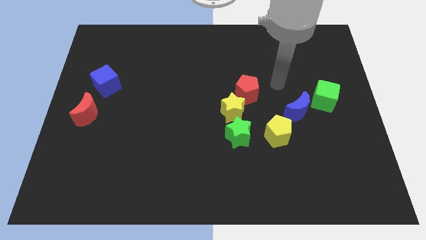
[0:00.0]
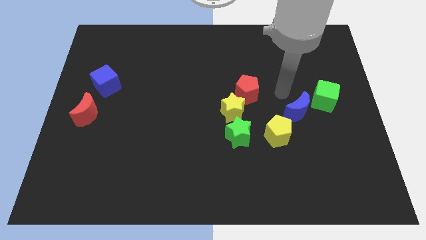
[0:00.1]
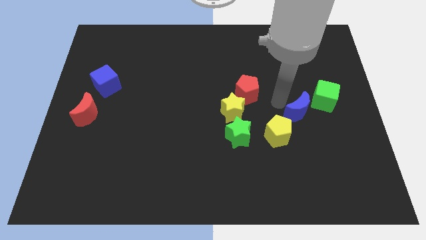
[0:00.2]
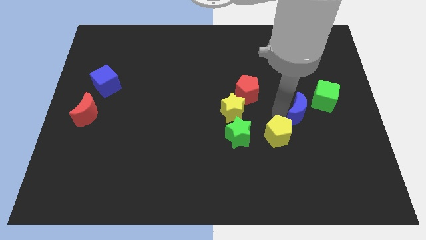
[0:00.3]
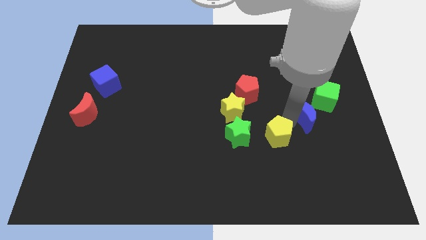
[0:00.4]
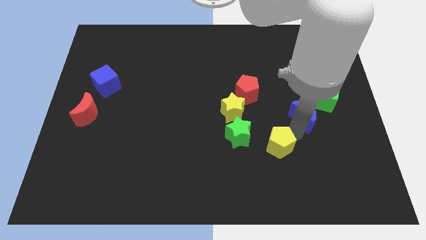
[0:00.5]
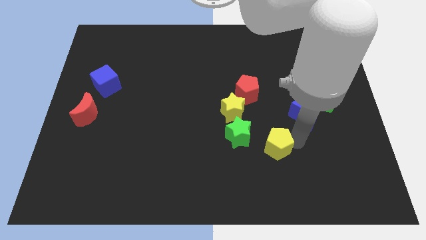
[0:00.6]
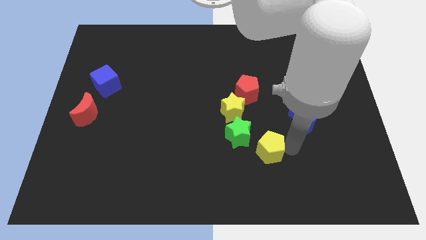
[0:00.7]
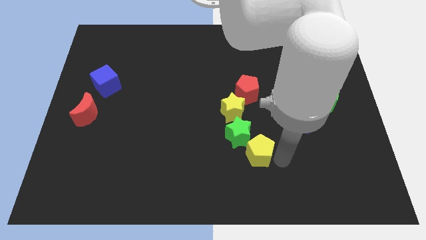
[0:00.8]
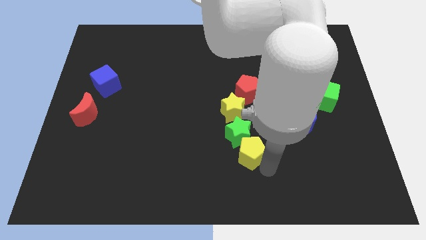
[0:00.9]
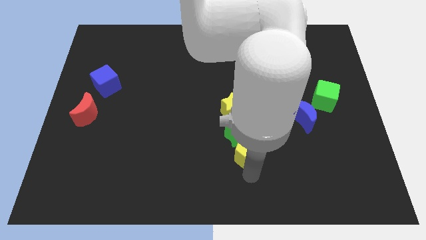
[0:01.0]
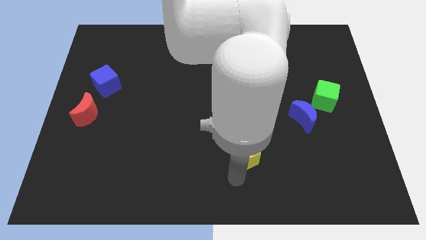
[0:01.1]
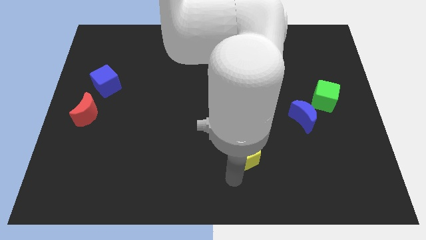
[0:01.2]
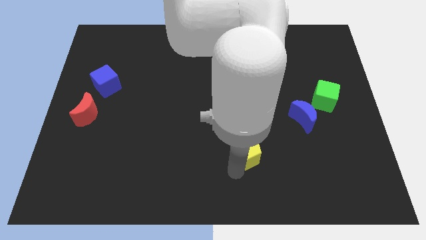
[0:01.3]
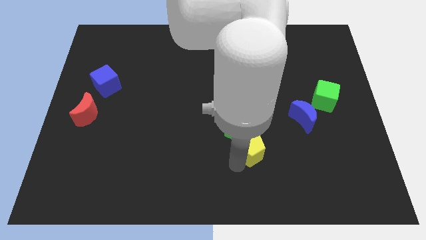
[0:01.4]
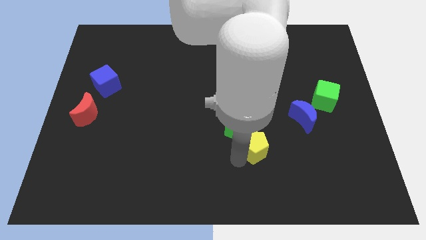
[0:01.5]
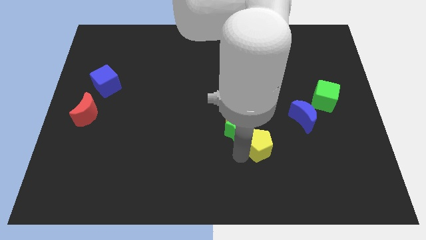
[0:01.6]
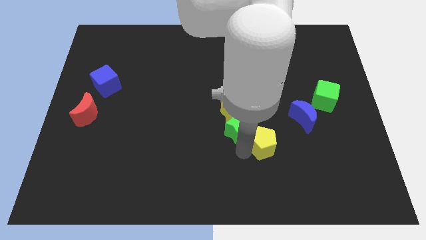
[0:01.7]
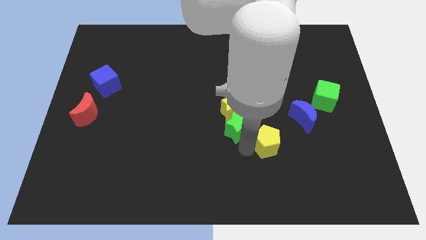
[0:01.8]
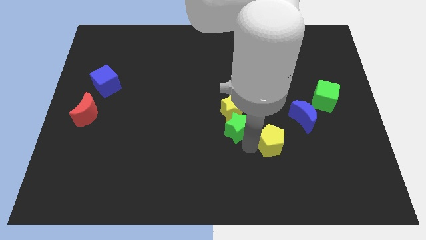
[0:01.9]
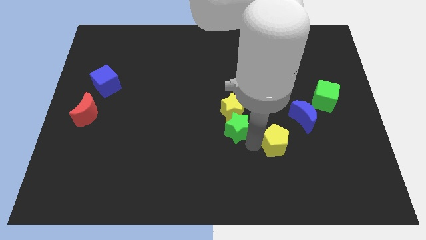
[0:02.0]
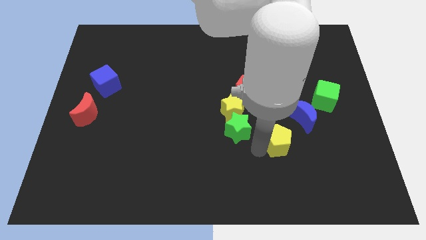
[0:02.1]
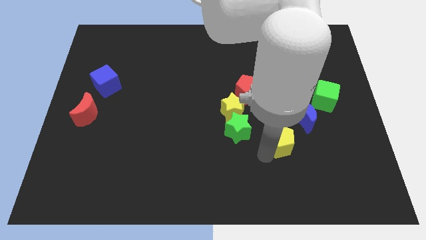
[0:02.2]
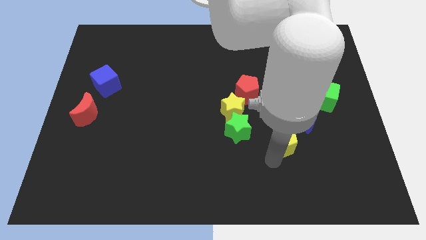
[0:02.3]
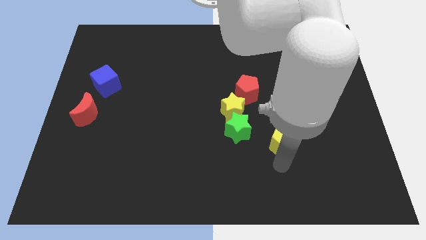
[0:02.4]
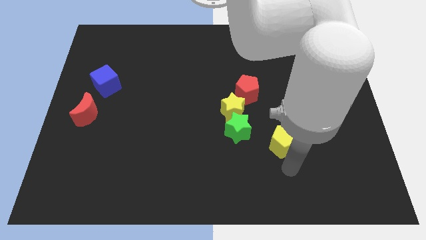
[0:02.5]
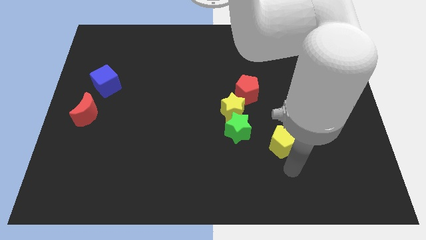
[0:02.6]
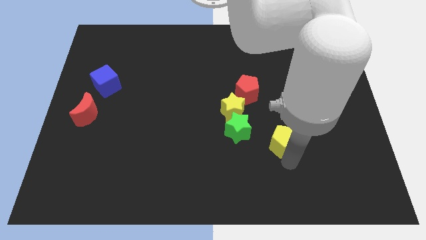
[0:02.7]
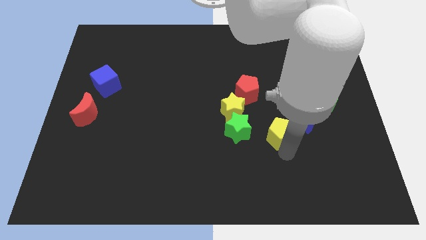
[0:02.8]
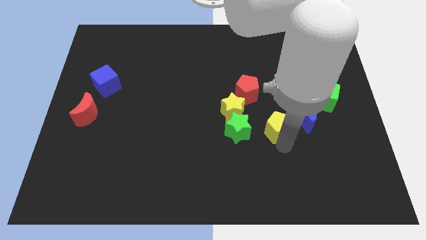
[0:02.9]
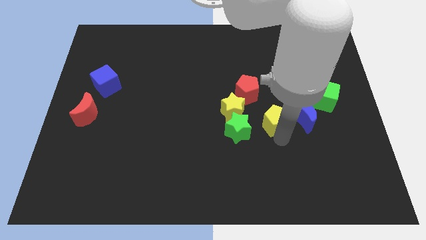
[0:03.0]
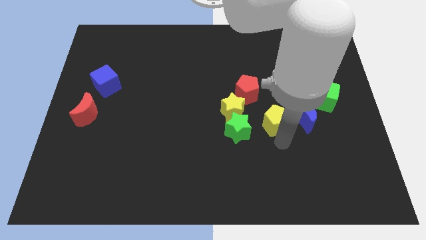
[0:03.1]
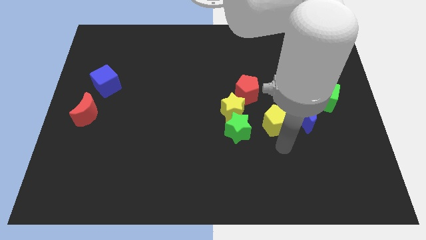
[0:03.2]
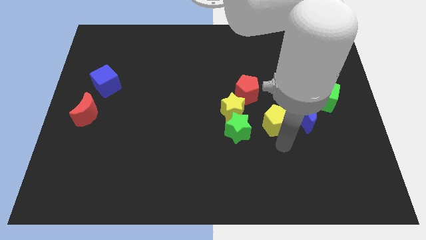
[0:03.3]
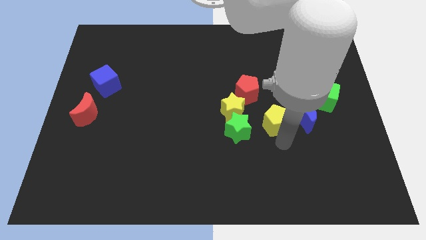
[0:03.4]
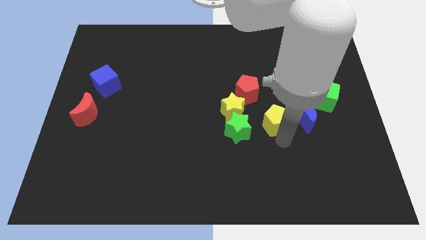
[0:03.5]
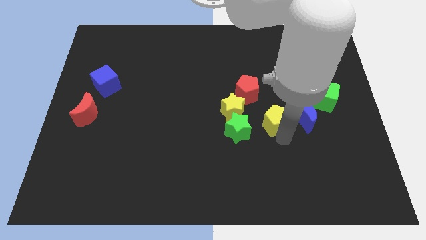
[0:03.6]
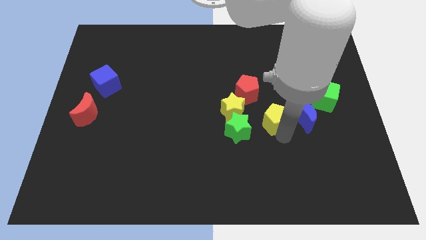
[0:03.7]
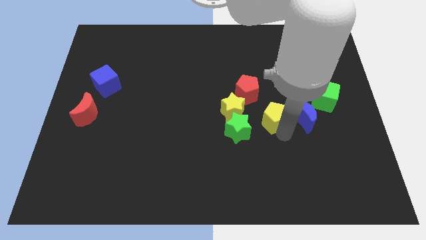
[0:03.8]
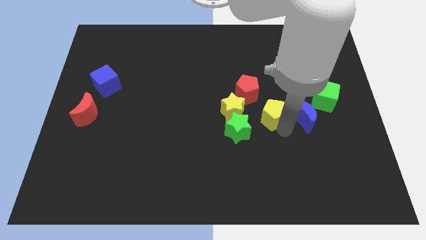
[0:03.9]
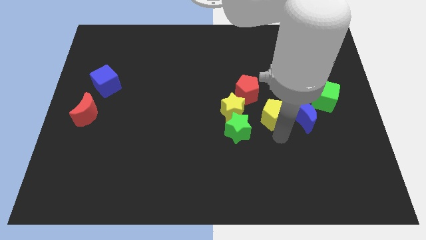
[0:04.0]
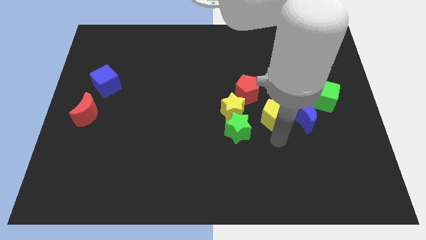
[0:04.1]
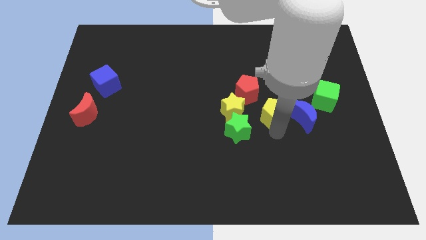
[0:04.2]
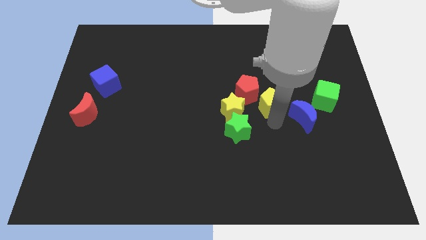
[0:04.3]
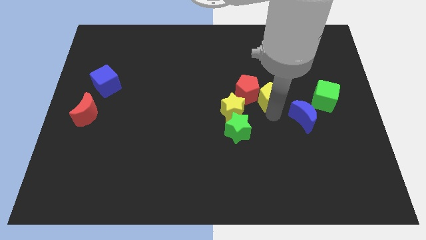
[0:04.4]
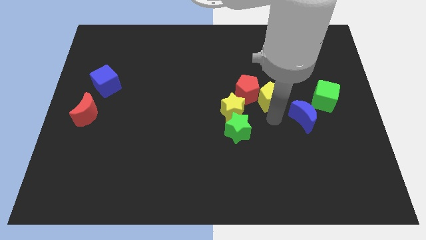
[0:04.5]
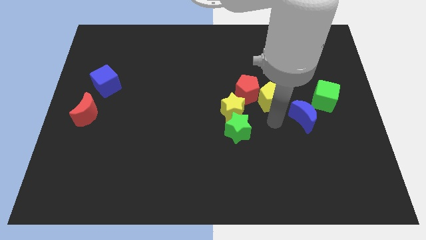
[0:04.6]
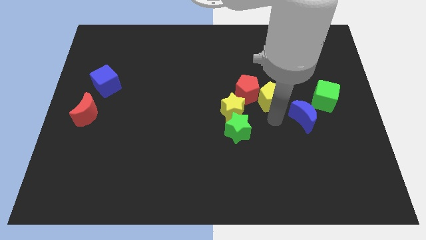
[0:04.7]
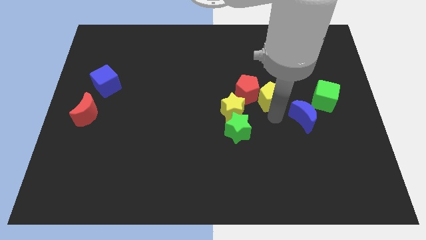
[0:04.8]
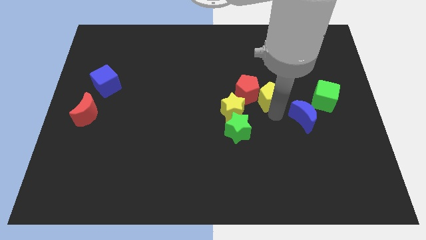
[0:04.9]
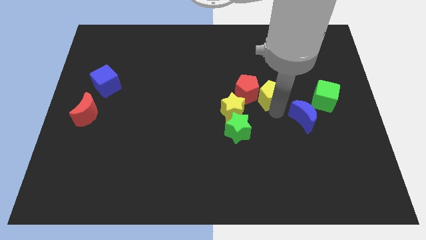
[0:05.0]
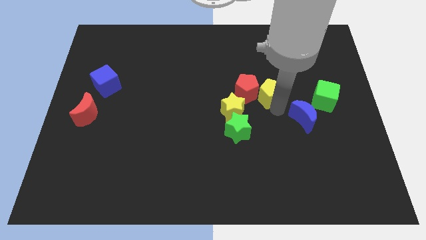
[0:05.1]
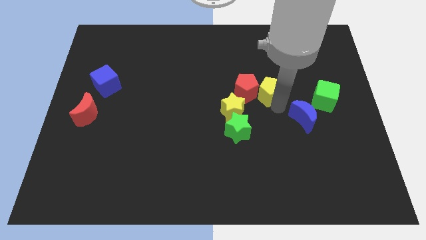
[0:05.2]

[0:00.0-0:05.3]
move the yellow pentagon to the top right side of the red pentagon

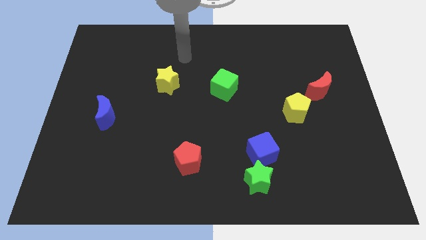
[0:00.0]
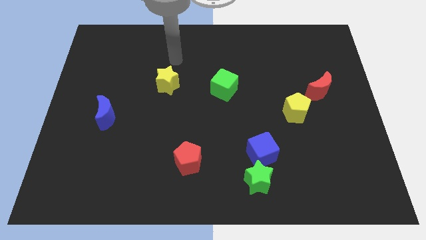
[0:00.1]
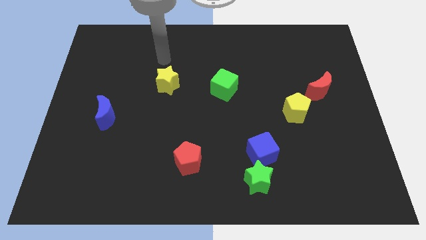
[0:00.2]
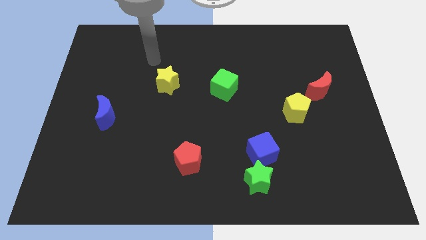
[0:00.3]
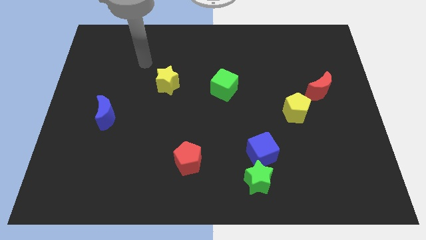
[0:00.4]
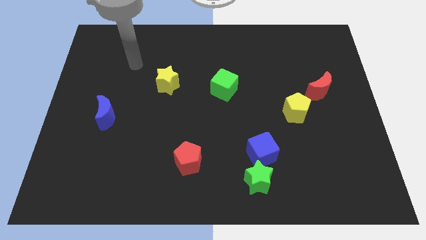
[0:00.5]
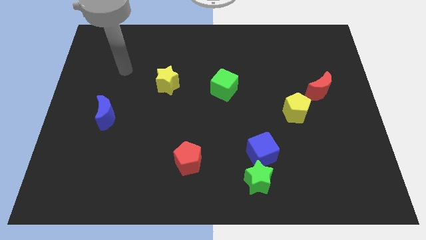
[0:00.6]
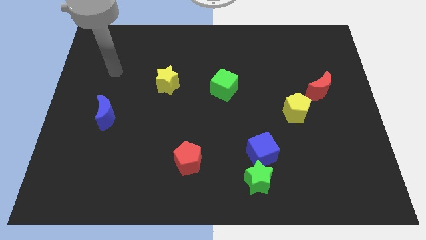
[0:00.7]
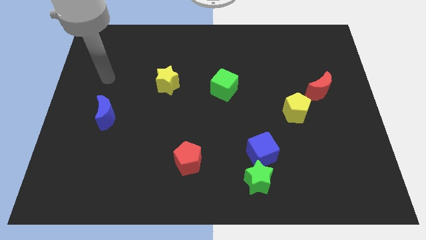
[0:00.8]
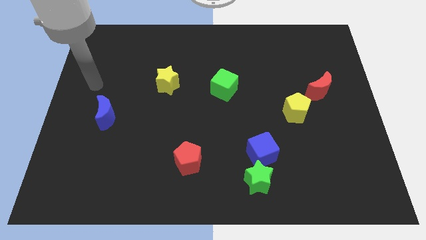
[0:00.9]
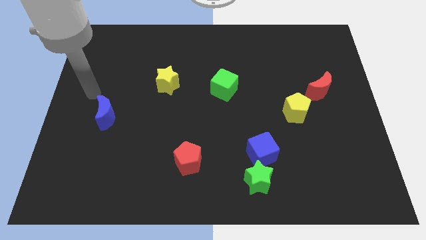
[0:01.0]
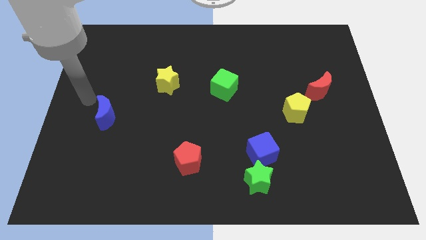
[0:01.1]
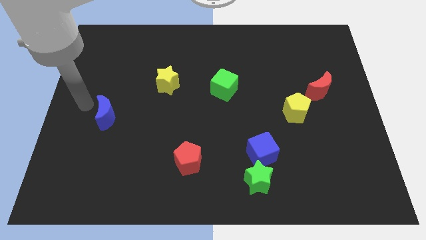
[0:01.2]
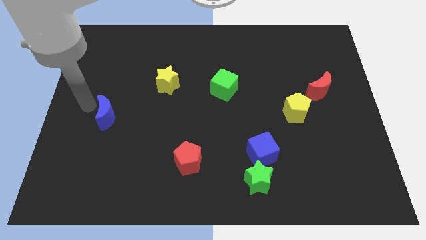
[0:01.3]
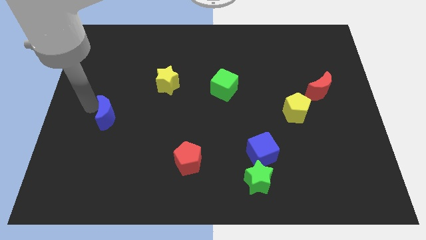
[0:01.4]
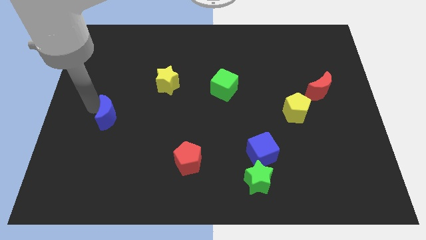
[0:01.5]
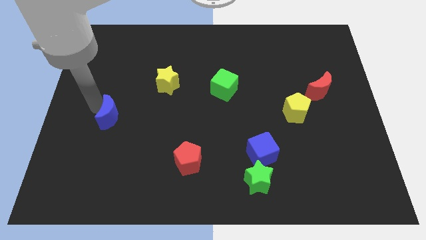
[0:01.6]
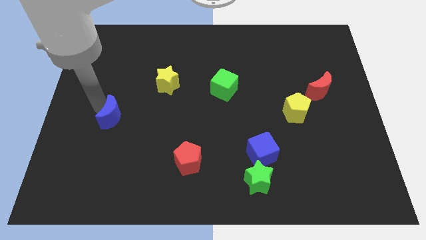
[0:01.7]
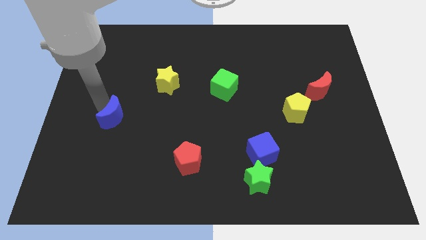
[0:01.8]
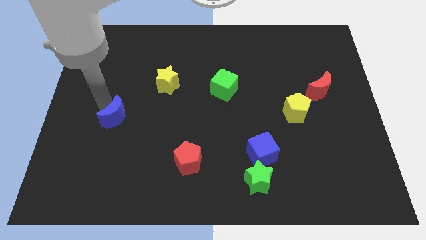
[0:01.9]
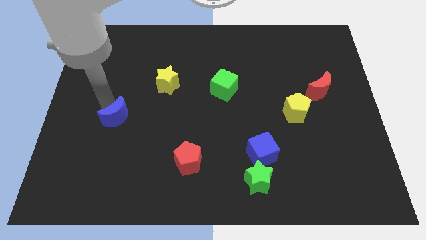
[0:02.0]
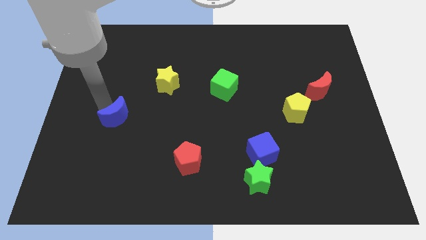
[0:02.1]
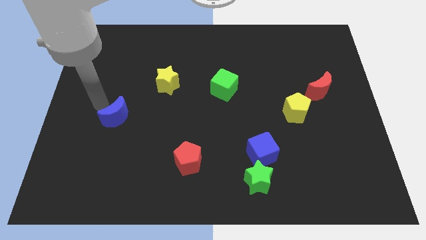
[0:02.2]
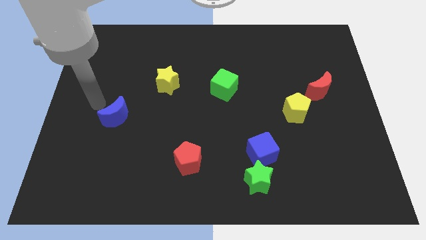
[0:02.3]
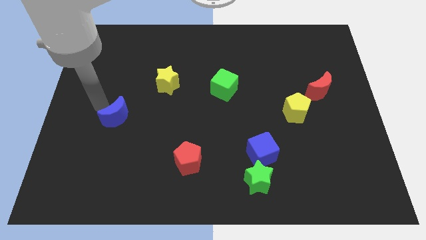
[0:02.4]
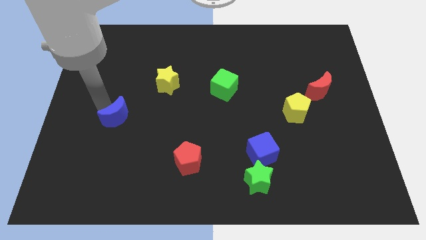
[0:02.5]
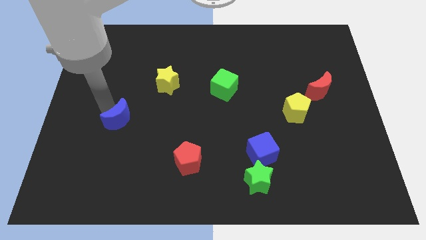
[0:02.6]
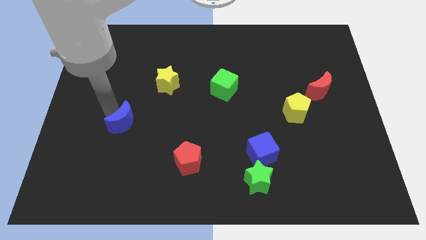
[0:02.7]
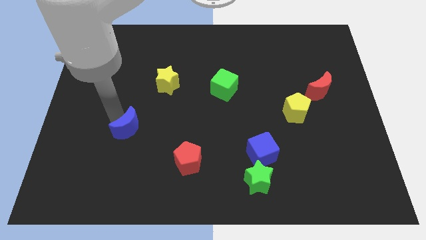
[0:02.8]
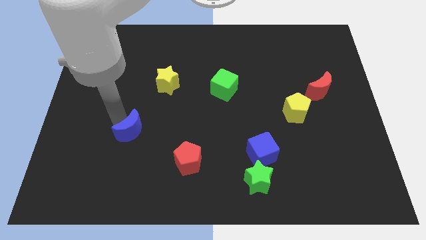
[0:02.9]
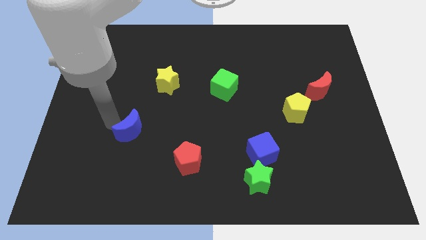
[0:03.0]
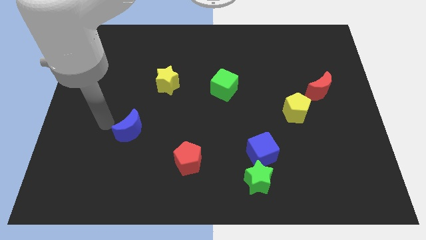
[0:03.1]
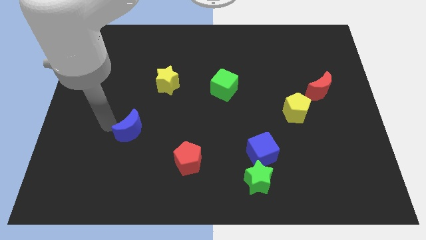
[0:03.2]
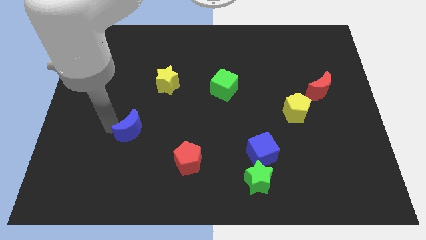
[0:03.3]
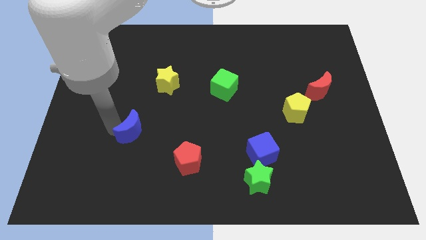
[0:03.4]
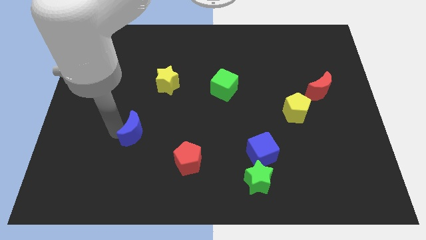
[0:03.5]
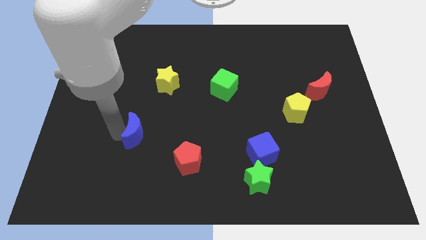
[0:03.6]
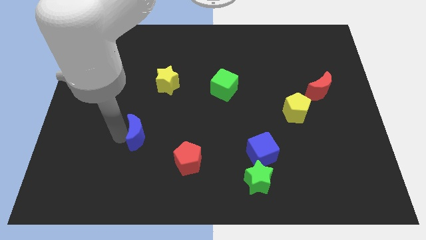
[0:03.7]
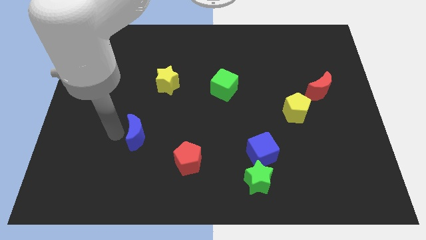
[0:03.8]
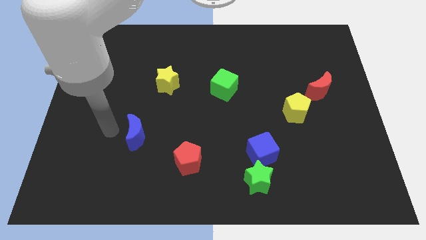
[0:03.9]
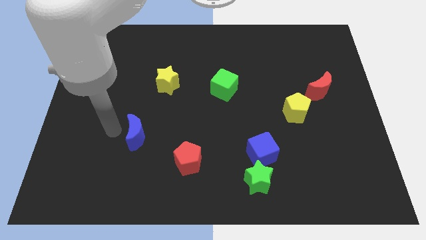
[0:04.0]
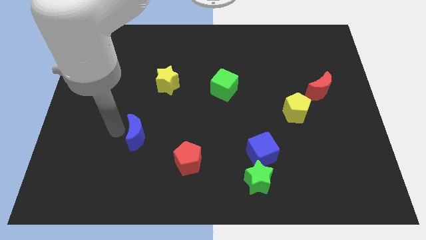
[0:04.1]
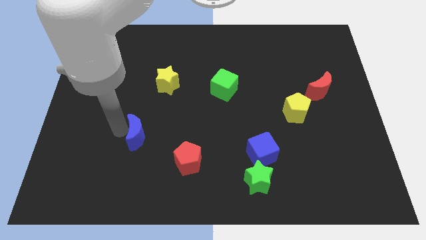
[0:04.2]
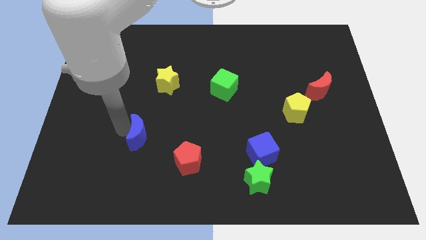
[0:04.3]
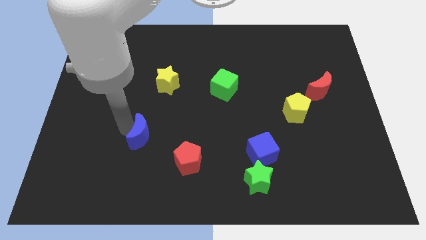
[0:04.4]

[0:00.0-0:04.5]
move the blue moon to the top left of the red pentagon
